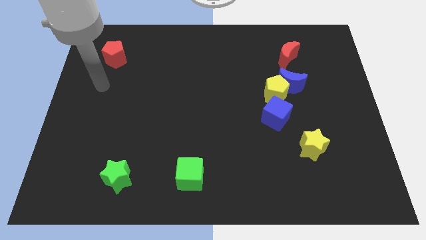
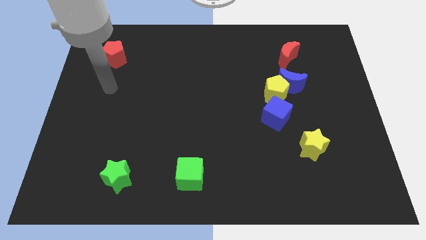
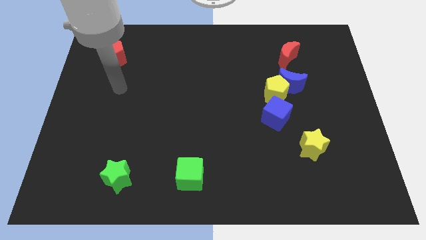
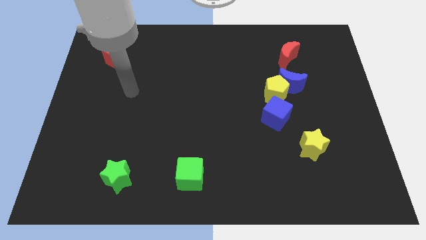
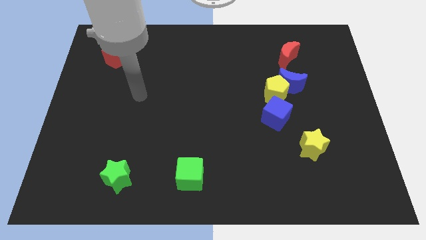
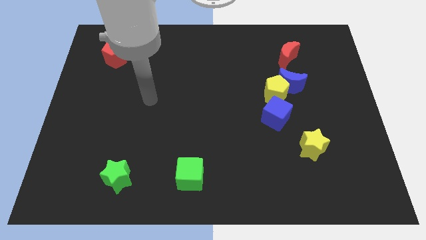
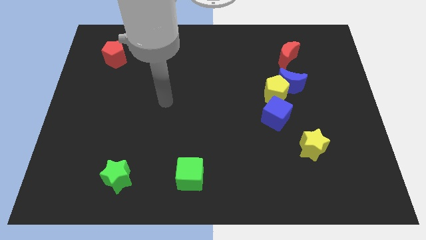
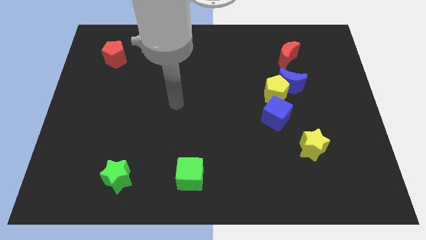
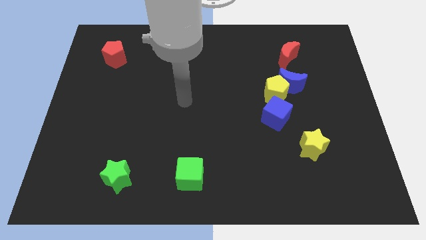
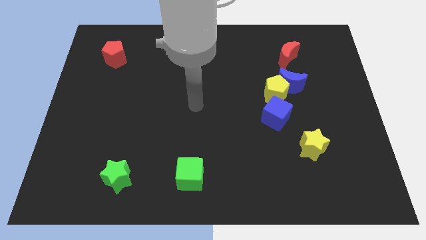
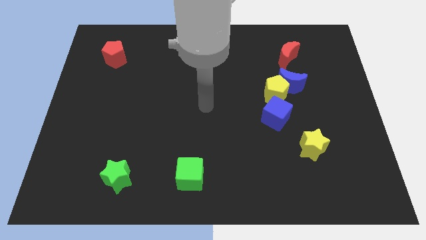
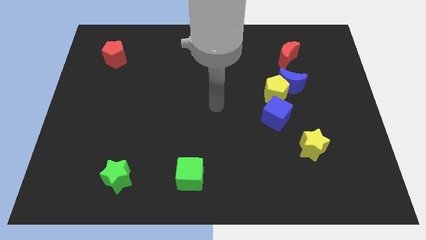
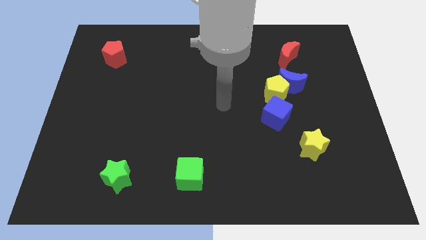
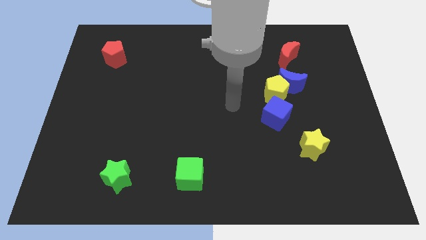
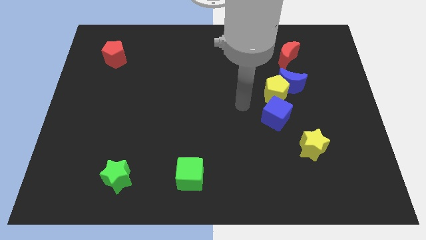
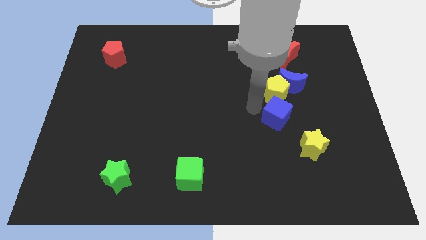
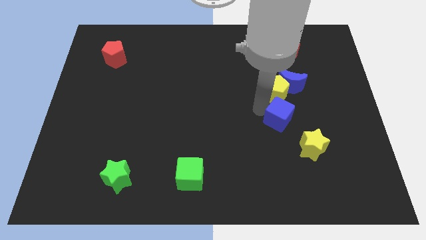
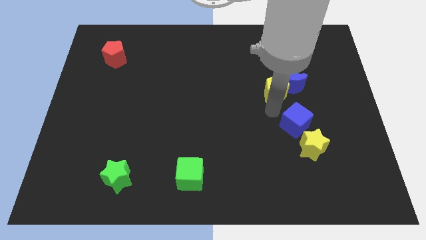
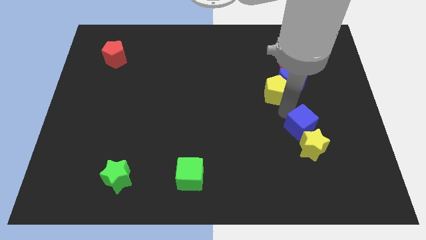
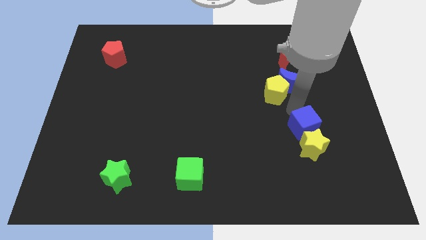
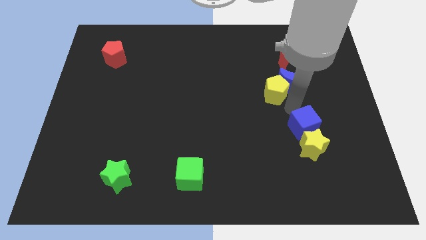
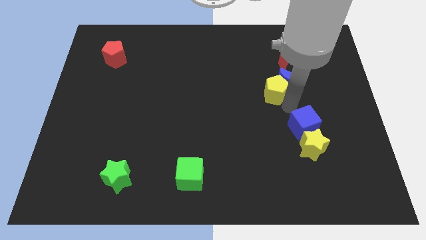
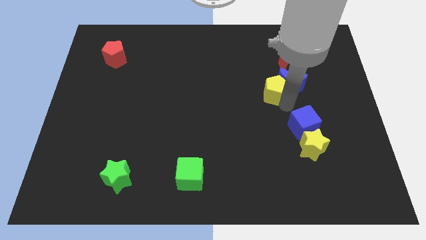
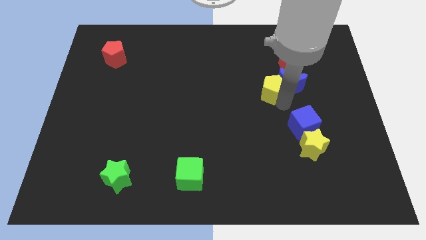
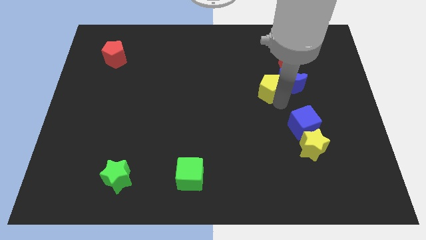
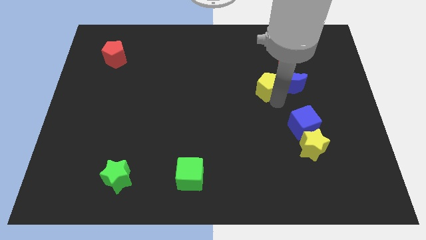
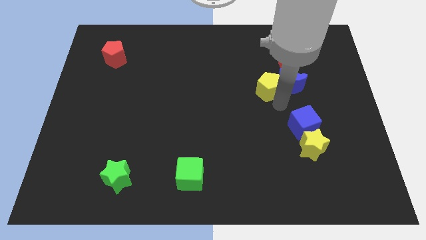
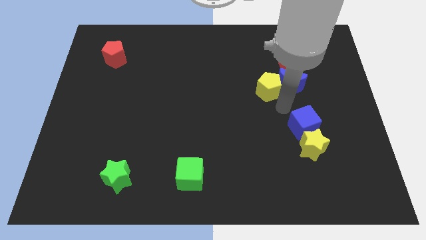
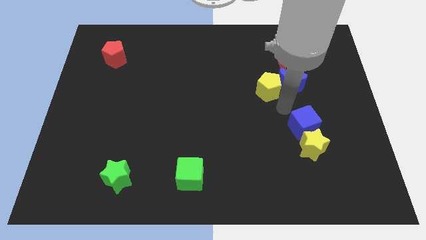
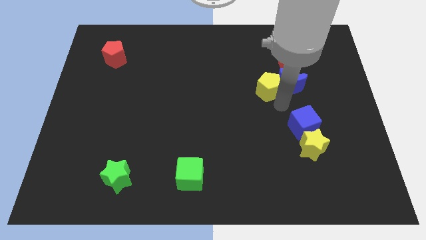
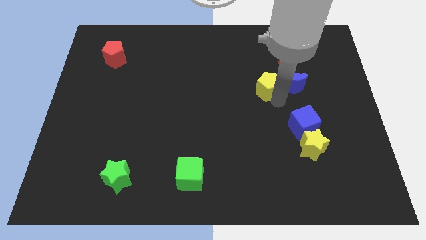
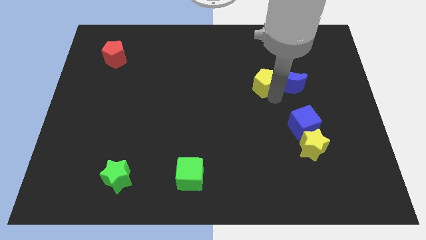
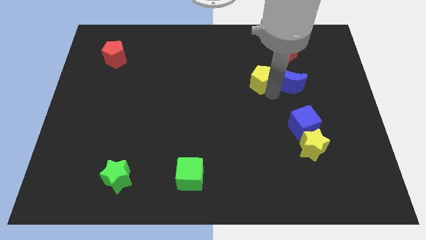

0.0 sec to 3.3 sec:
pull the yellow pentagon apart from the blue moon and blue cube

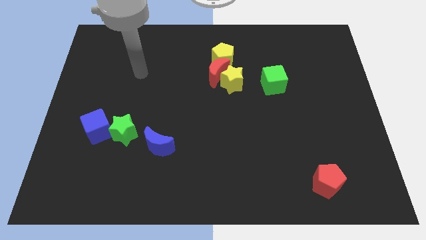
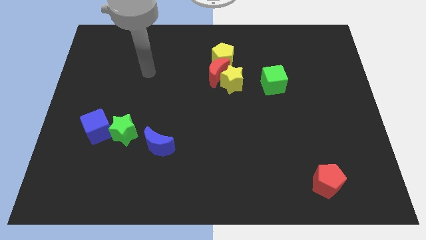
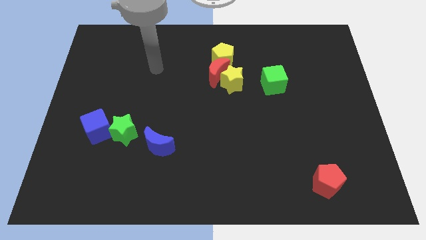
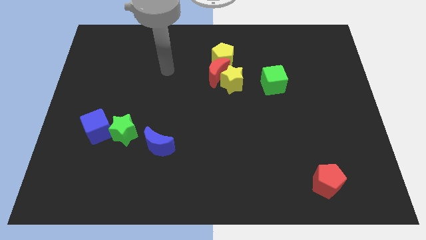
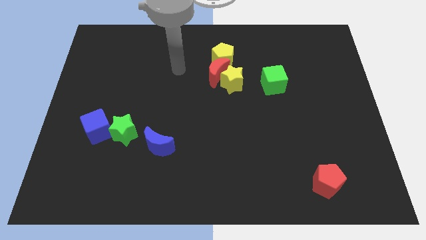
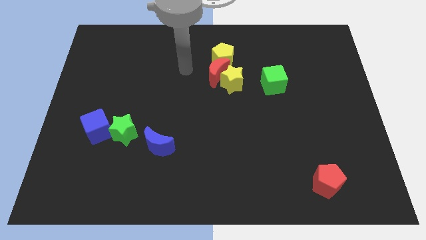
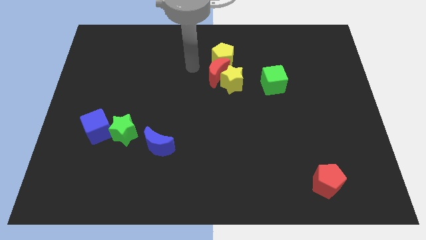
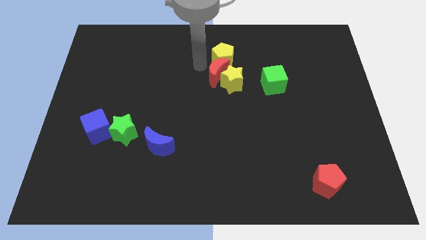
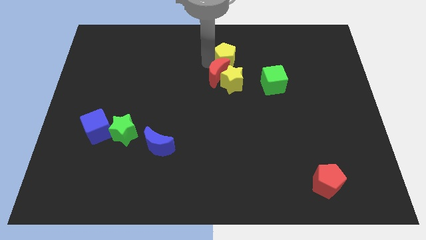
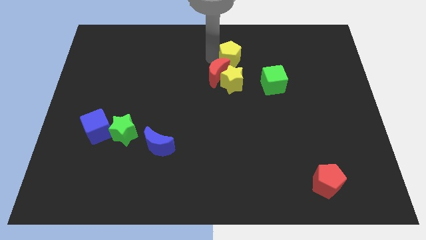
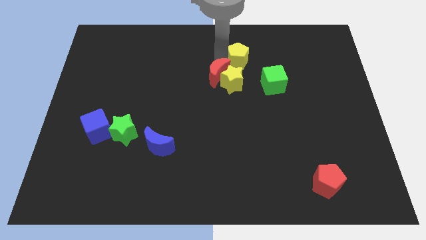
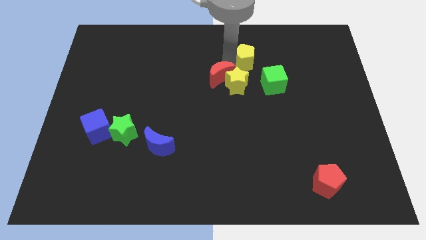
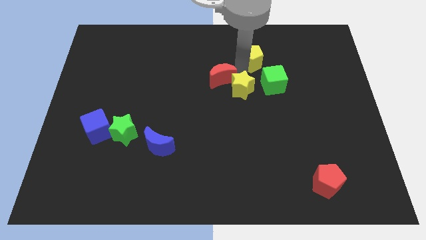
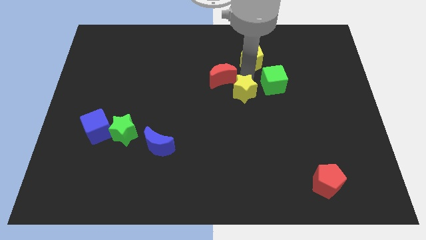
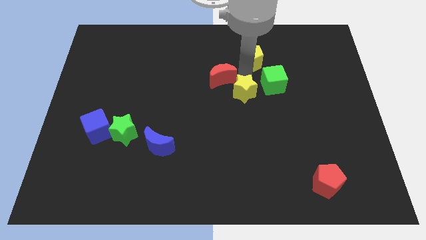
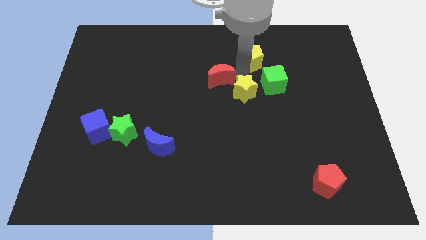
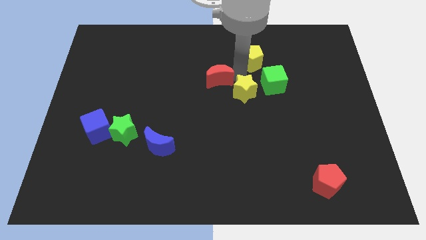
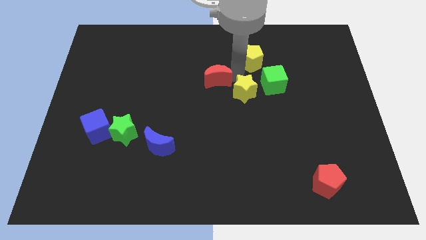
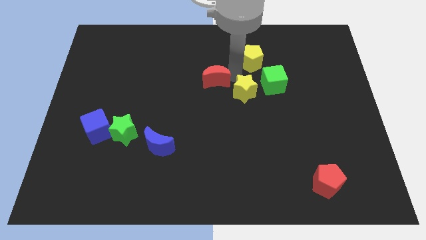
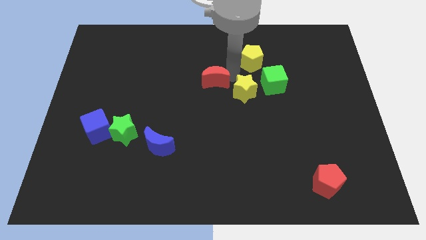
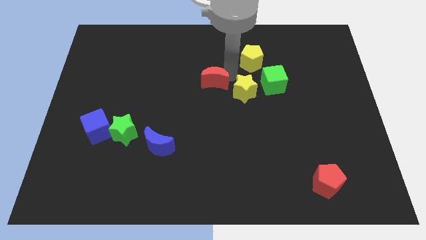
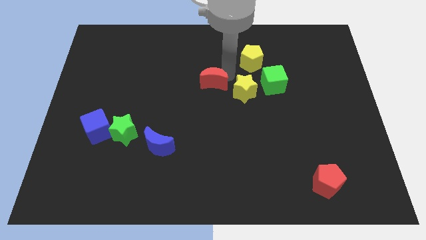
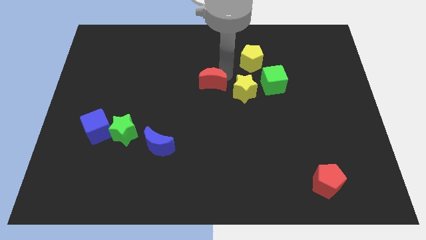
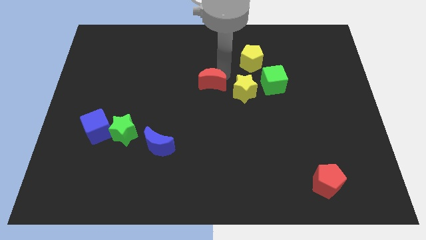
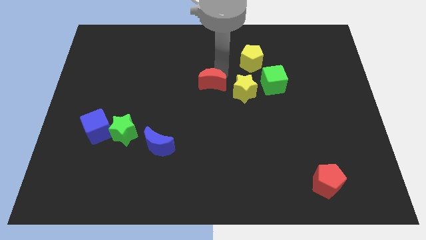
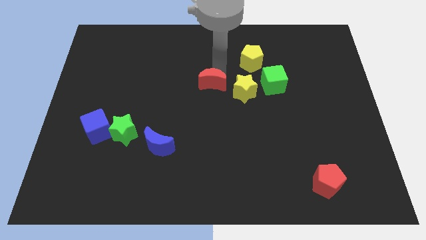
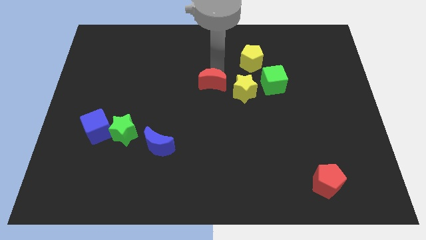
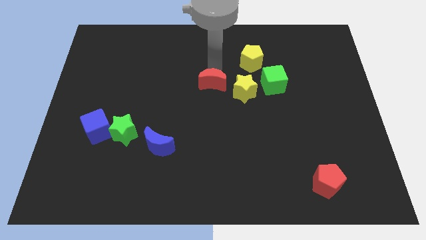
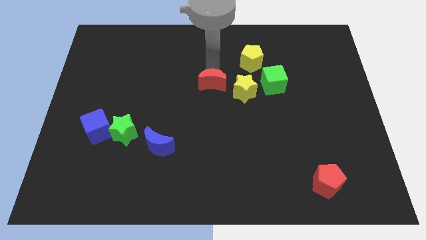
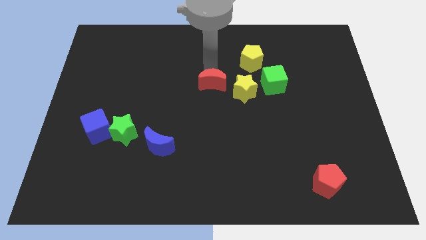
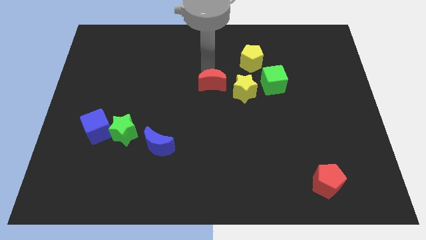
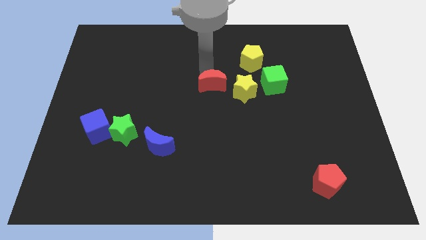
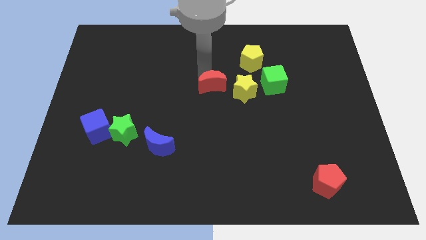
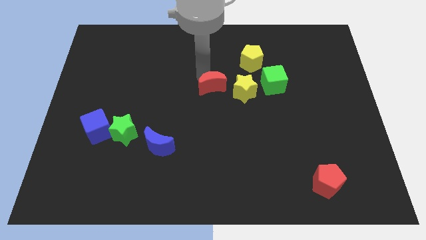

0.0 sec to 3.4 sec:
pull the red moon apart from the yellow star and yellow pentagon

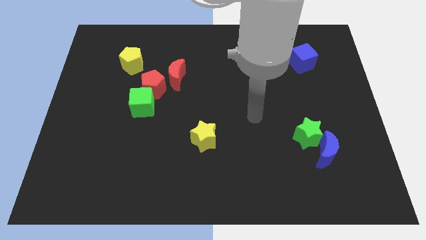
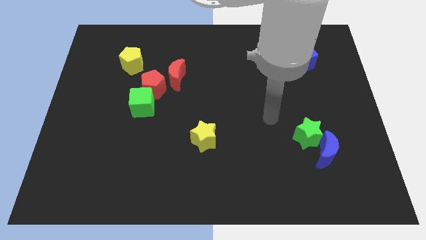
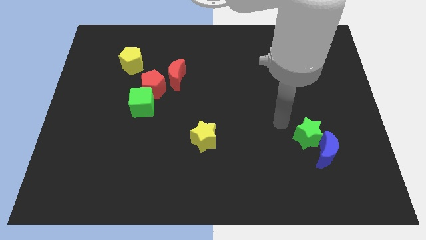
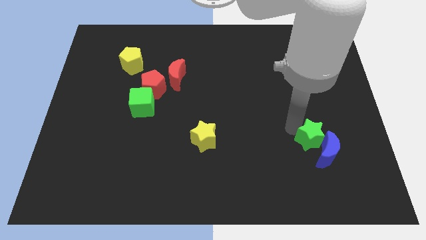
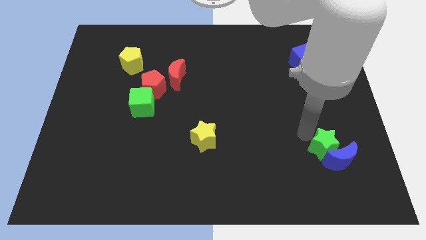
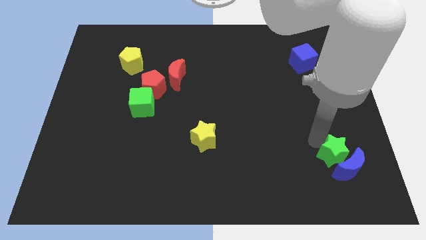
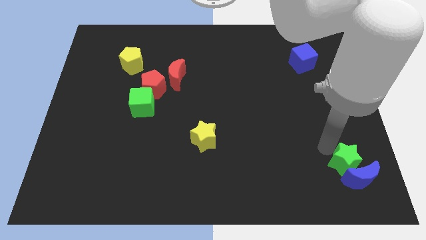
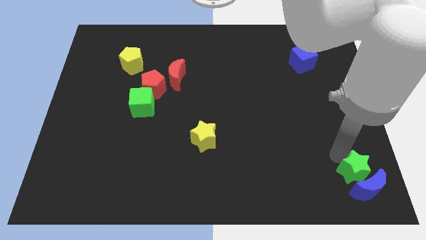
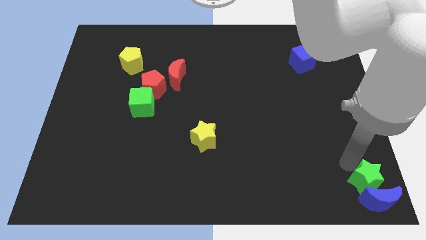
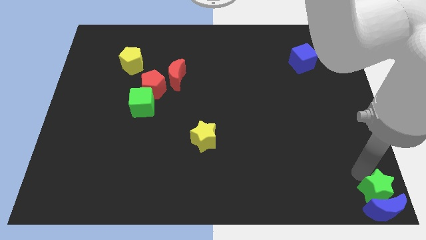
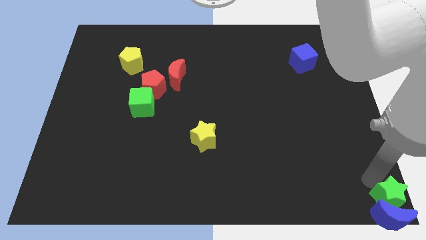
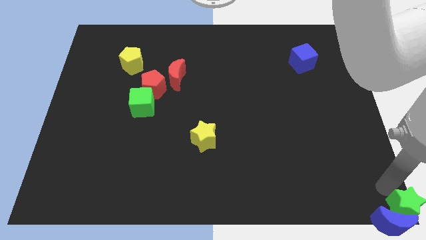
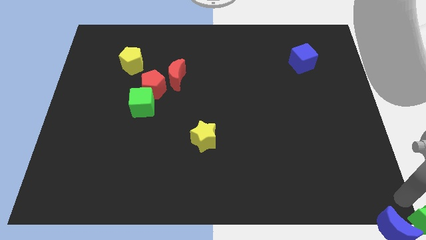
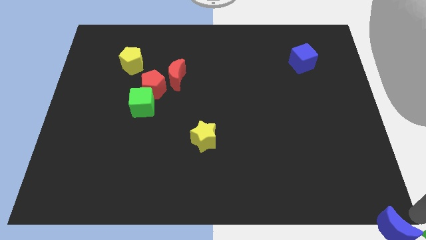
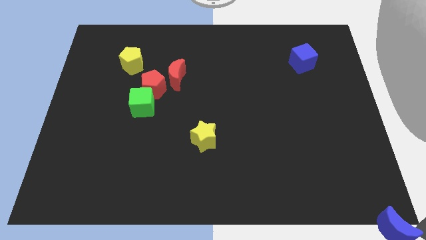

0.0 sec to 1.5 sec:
pull the blue moon apart from the green star

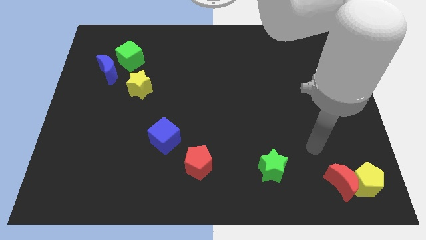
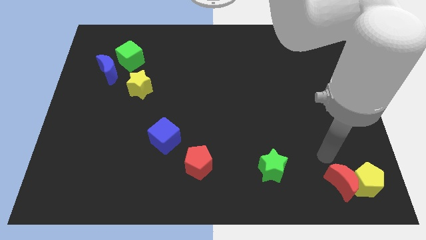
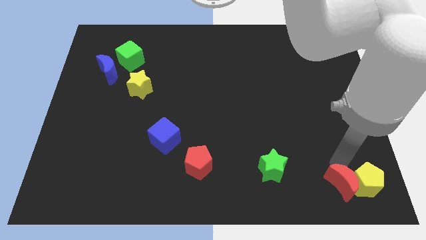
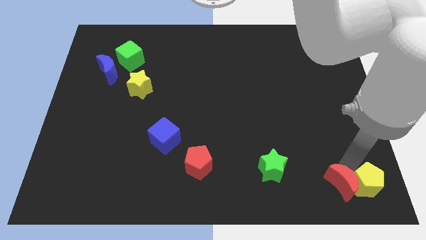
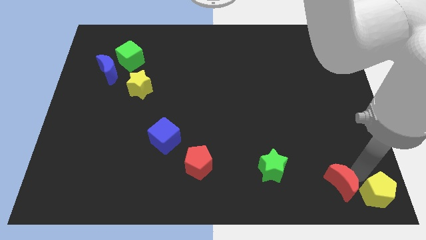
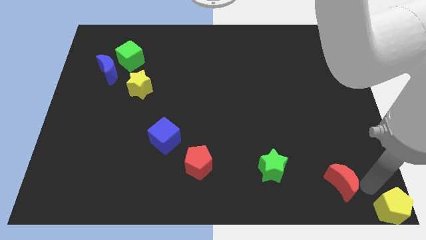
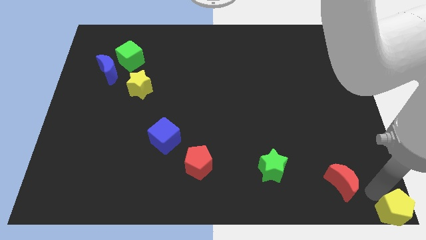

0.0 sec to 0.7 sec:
move the red moon away from the yellow pentagon

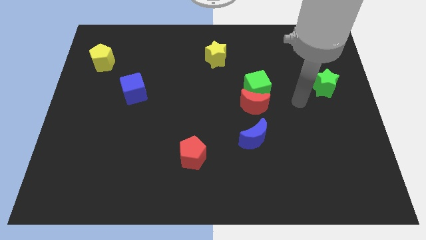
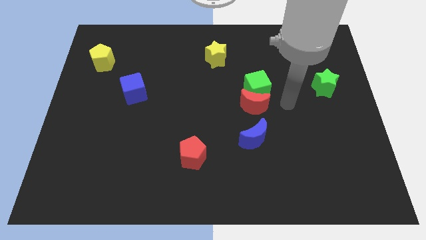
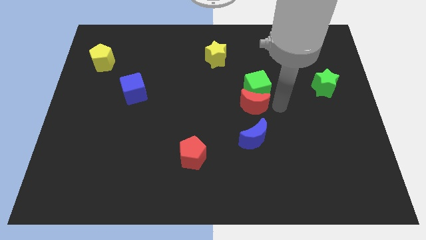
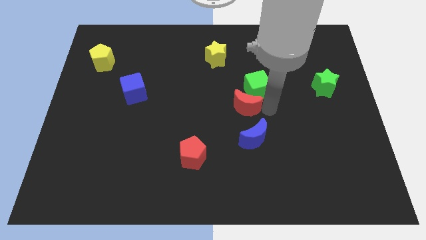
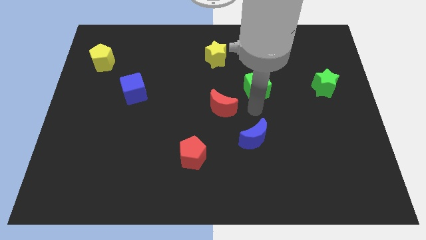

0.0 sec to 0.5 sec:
move the green cube away from the red moon
